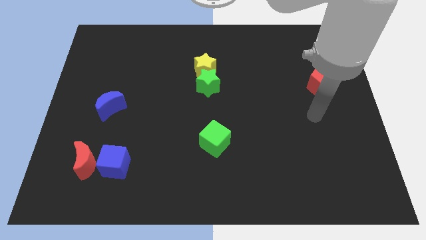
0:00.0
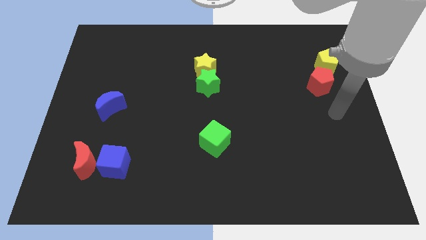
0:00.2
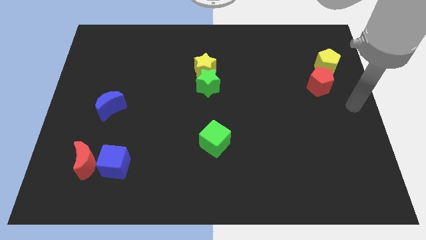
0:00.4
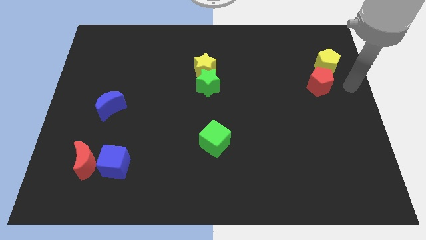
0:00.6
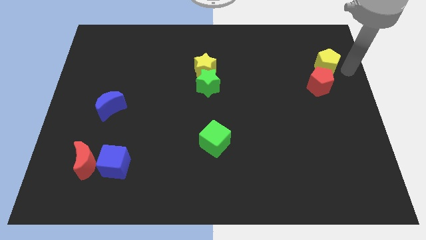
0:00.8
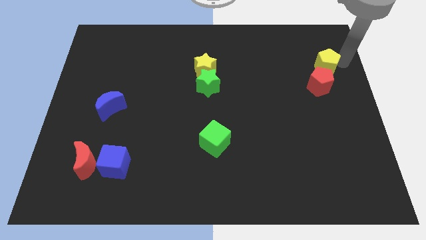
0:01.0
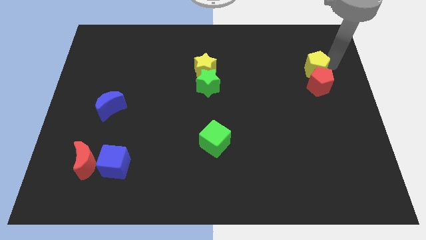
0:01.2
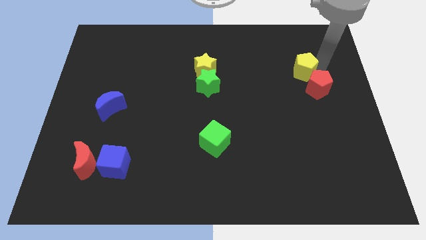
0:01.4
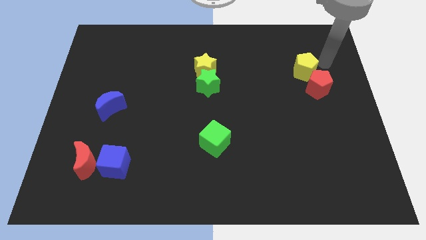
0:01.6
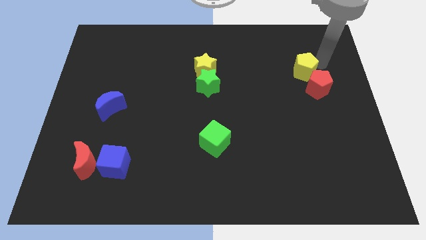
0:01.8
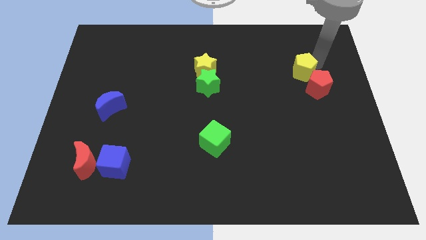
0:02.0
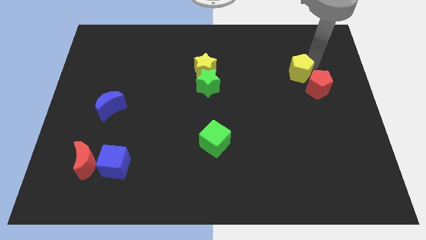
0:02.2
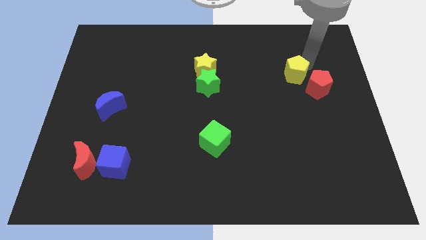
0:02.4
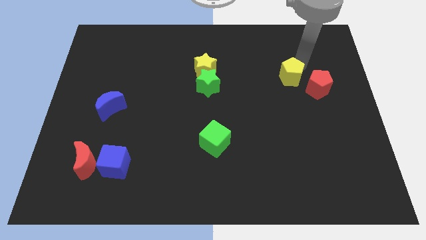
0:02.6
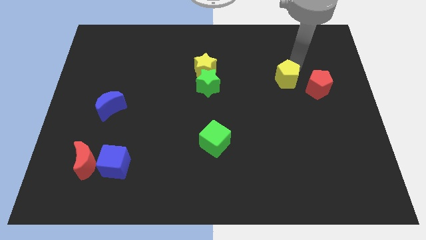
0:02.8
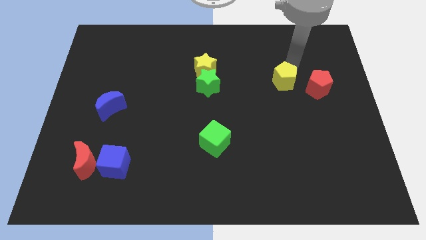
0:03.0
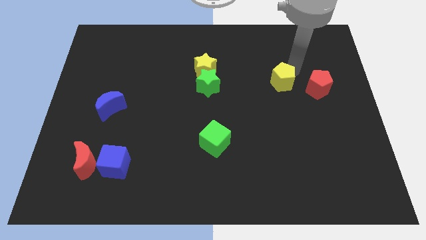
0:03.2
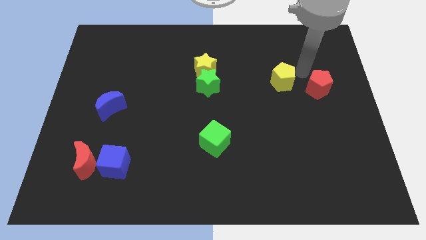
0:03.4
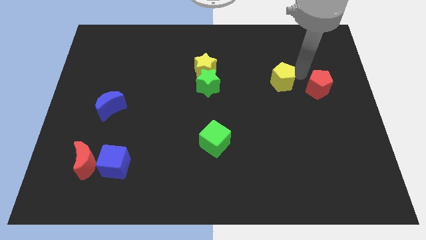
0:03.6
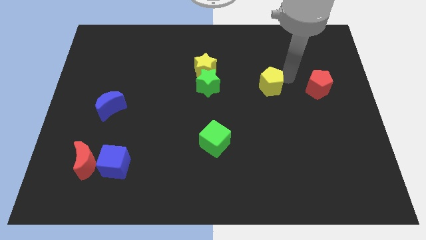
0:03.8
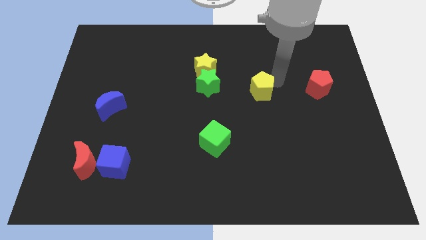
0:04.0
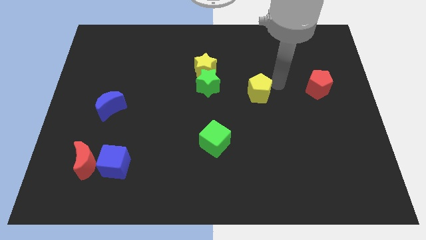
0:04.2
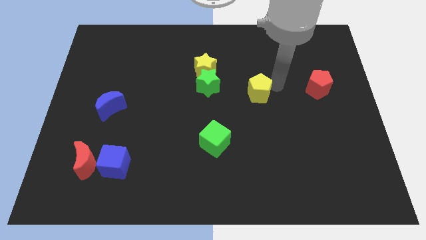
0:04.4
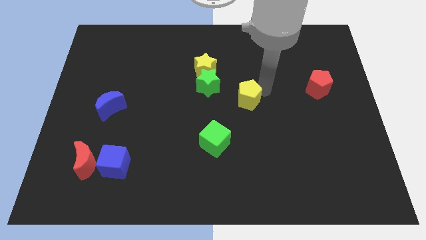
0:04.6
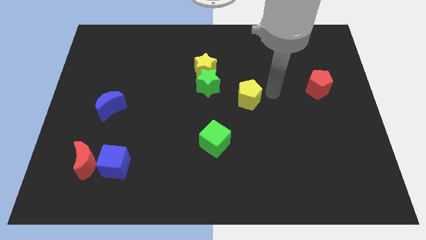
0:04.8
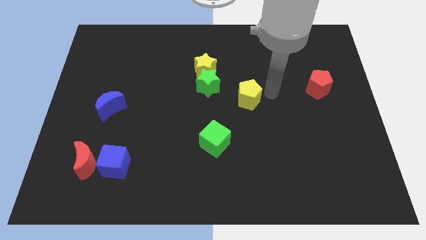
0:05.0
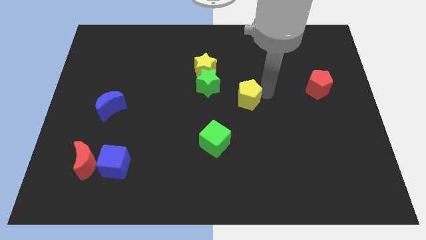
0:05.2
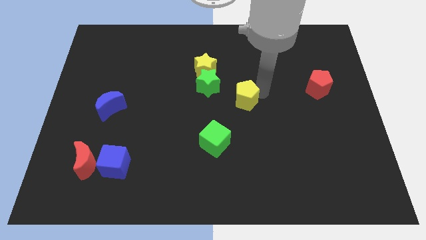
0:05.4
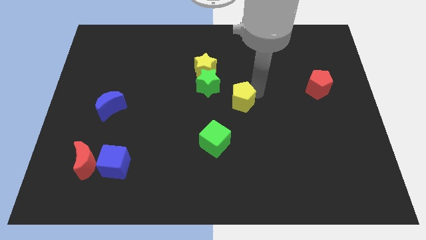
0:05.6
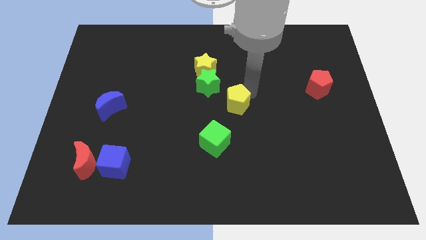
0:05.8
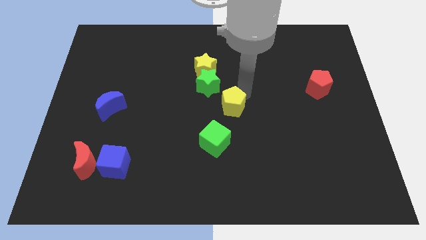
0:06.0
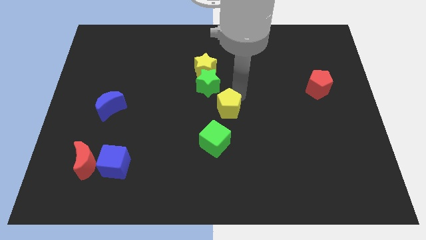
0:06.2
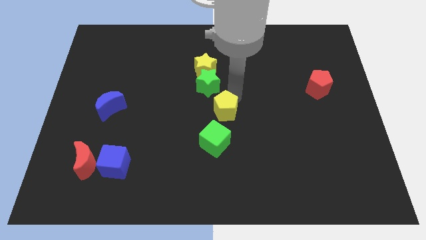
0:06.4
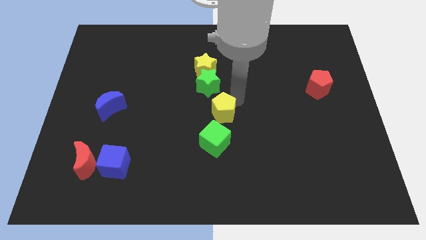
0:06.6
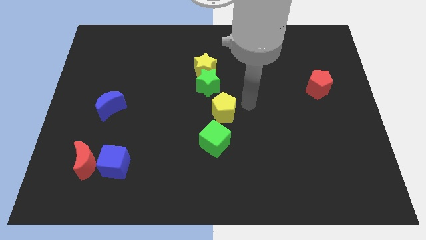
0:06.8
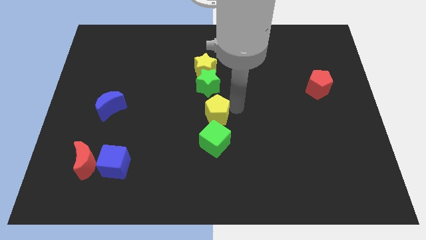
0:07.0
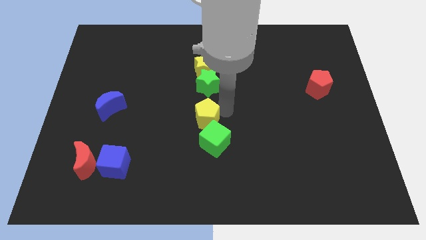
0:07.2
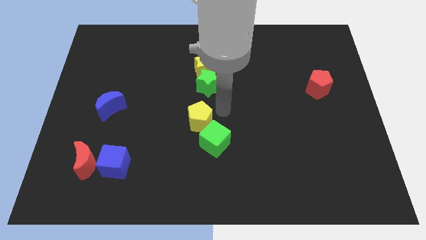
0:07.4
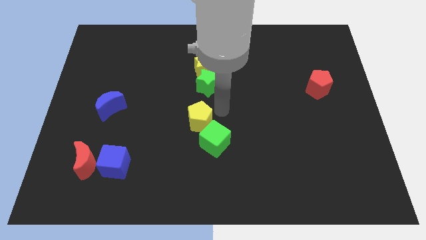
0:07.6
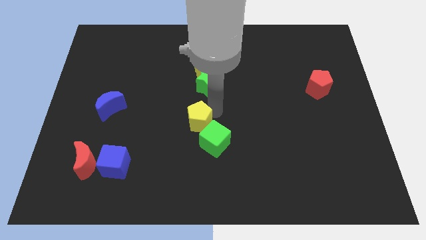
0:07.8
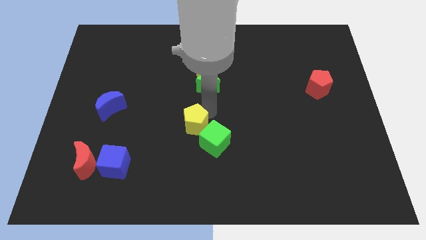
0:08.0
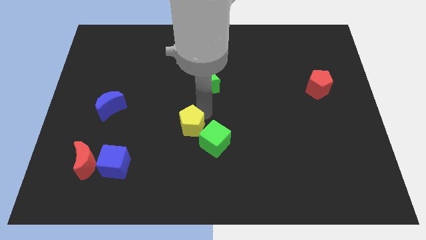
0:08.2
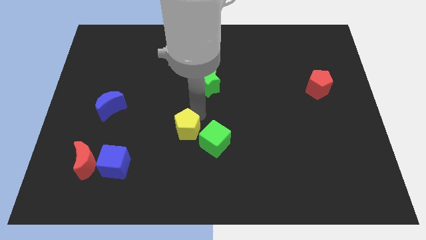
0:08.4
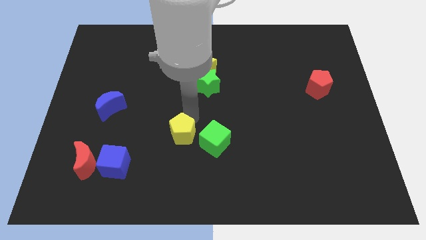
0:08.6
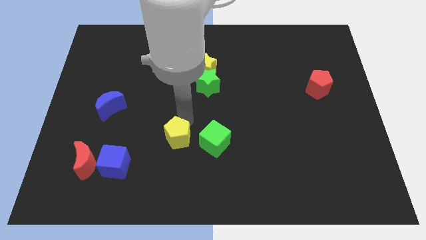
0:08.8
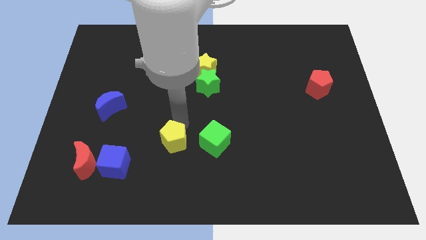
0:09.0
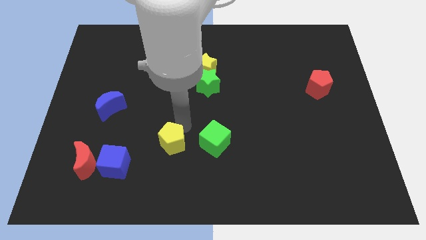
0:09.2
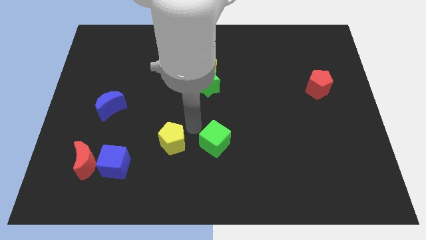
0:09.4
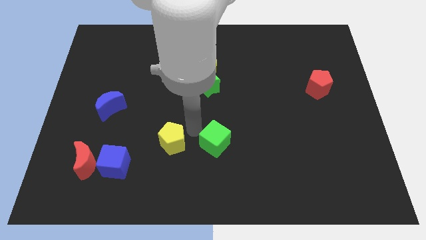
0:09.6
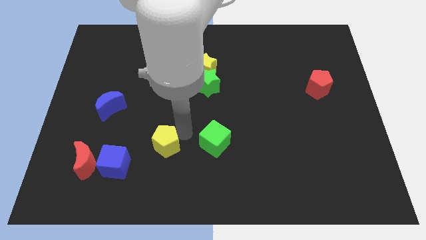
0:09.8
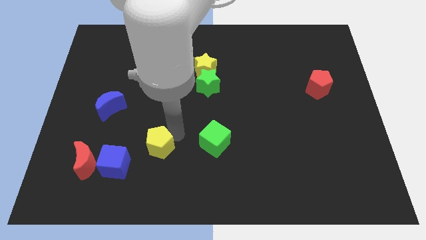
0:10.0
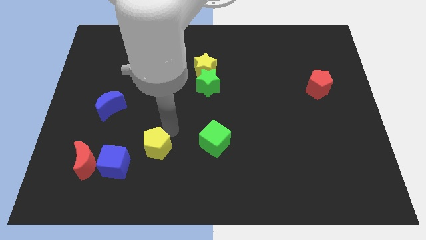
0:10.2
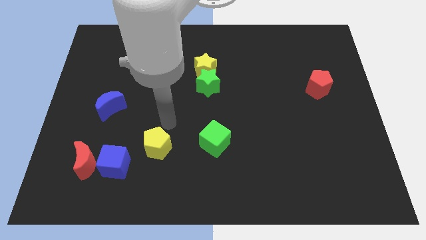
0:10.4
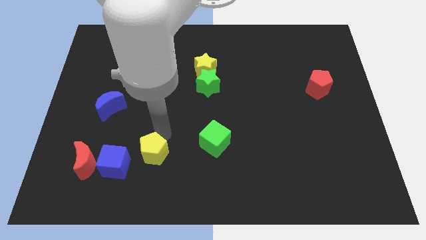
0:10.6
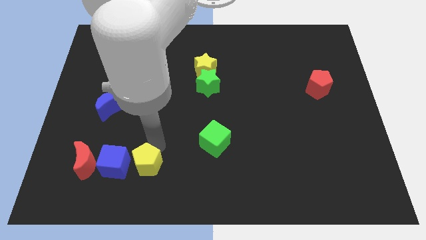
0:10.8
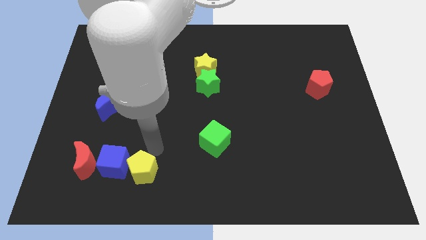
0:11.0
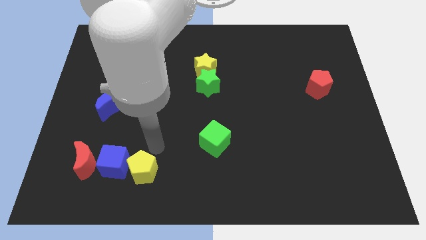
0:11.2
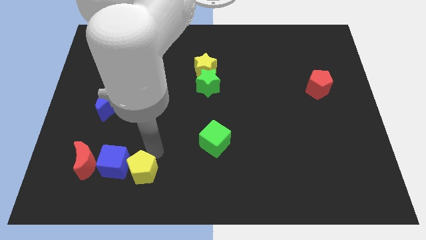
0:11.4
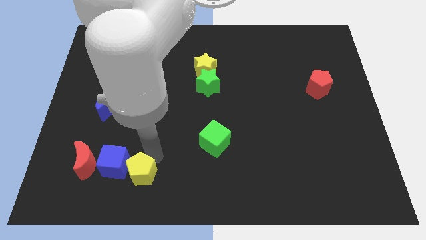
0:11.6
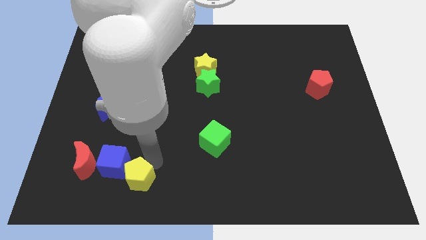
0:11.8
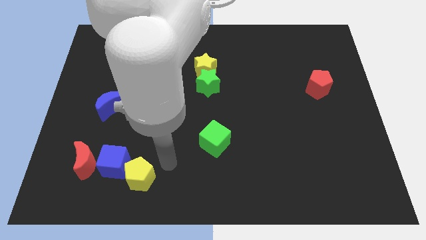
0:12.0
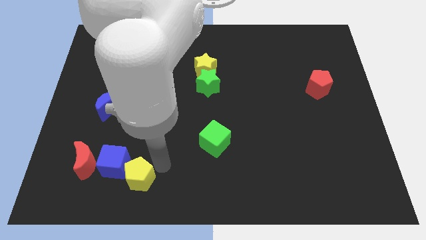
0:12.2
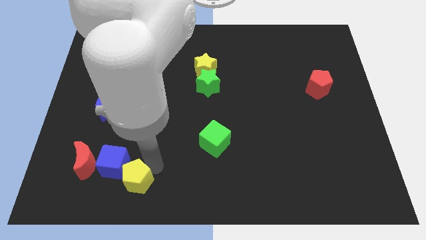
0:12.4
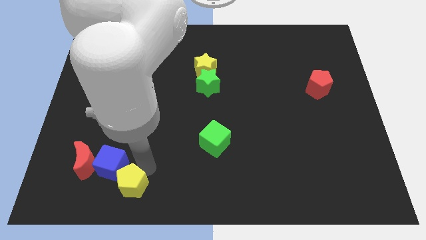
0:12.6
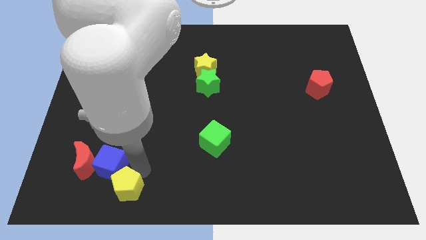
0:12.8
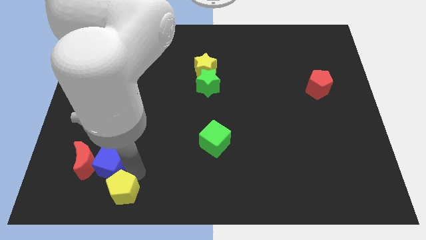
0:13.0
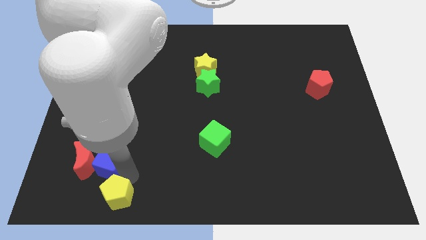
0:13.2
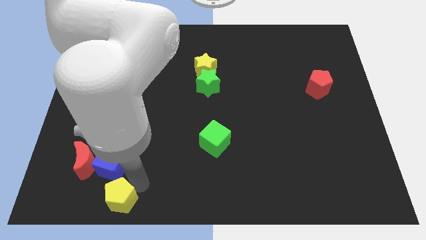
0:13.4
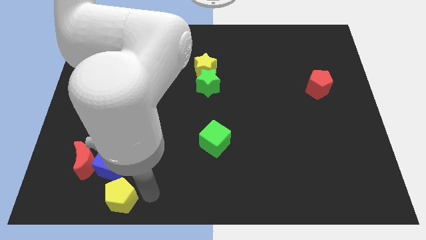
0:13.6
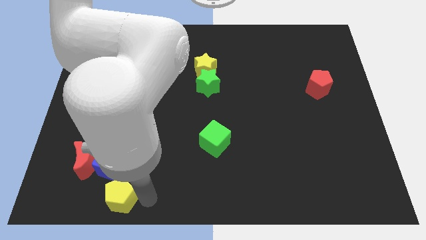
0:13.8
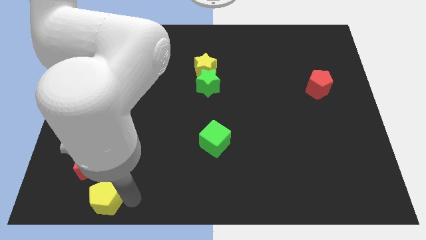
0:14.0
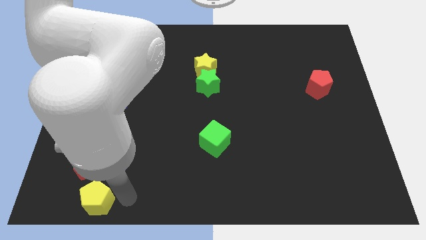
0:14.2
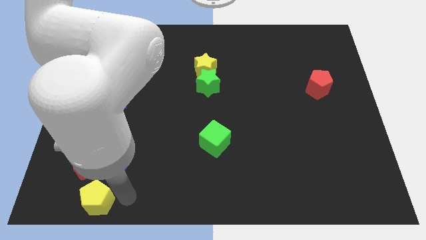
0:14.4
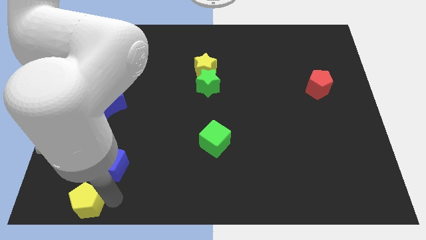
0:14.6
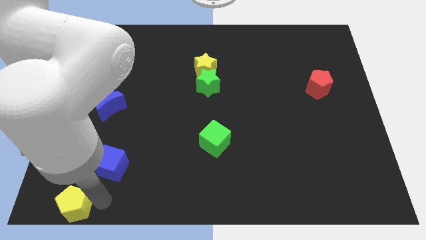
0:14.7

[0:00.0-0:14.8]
push the yellow pentagon to the bottom left corner
